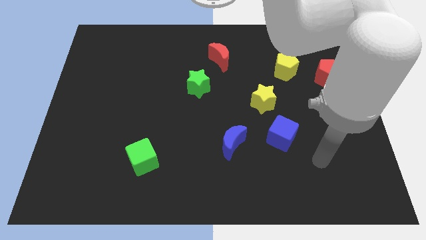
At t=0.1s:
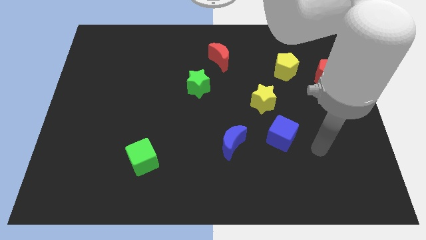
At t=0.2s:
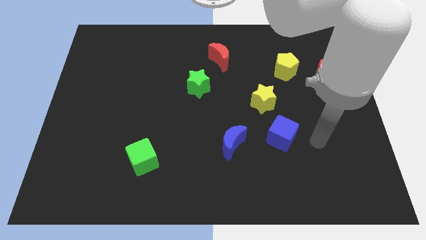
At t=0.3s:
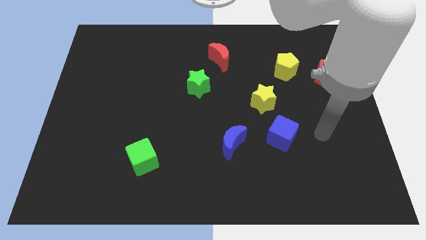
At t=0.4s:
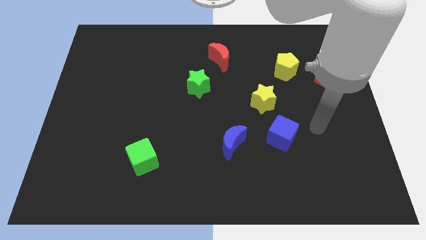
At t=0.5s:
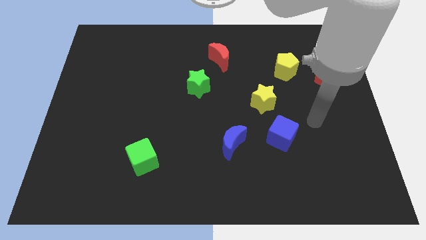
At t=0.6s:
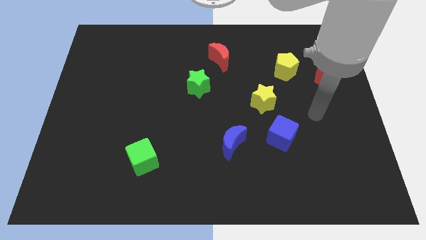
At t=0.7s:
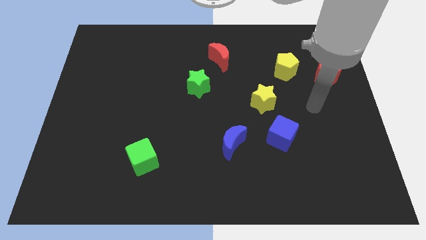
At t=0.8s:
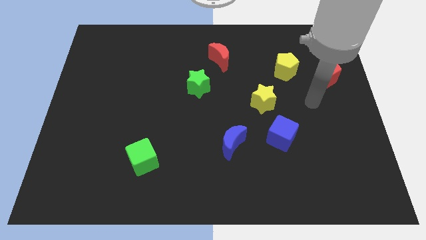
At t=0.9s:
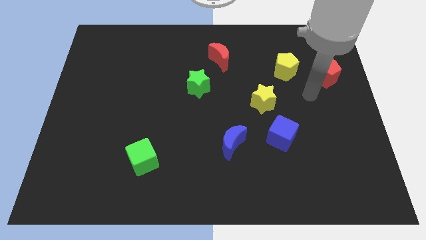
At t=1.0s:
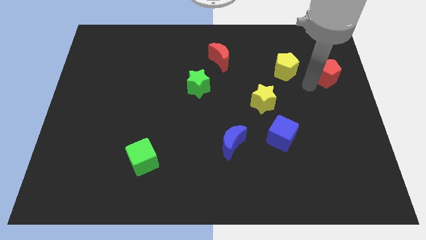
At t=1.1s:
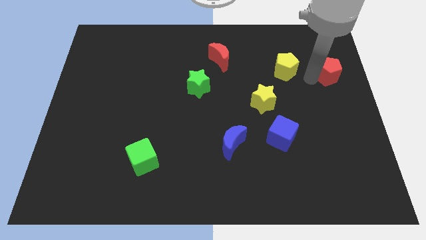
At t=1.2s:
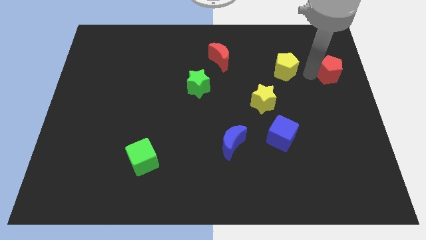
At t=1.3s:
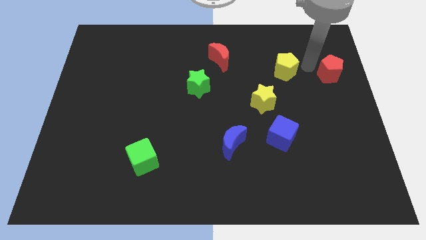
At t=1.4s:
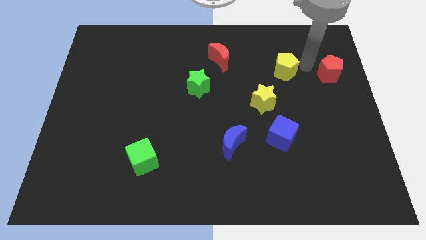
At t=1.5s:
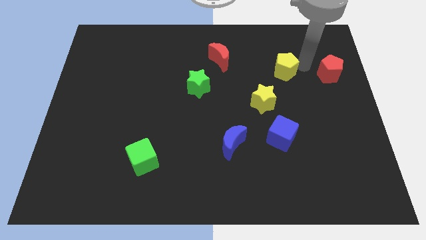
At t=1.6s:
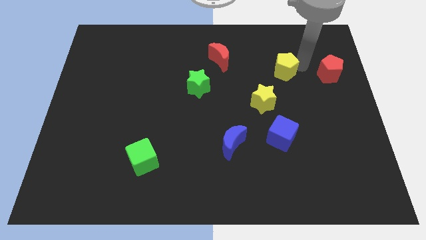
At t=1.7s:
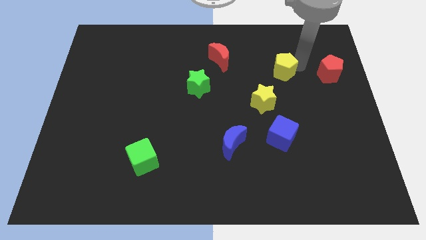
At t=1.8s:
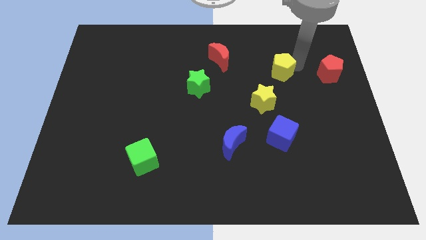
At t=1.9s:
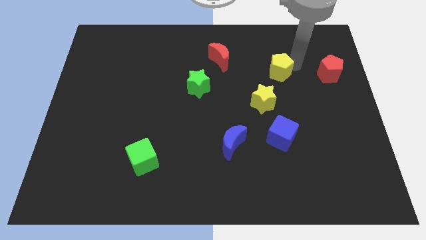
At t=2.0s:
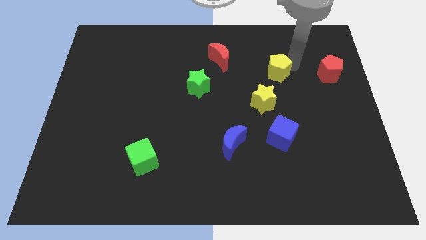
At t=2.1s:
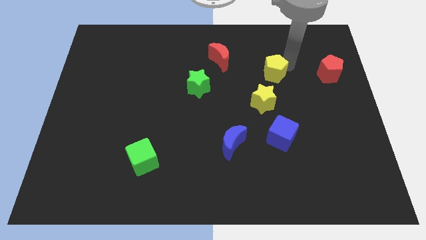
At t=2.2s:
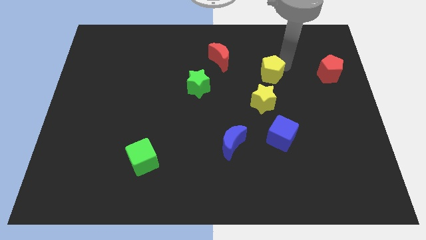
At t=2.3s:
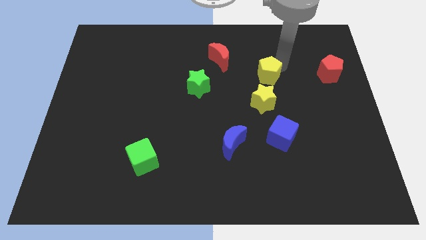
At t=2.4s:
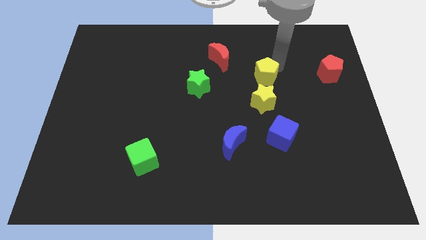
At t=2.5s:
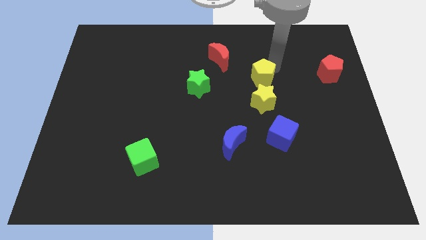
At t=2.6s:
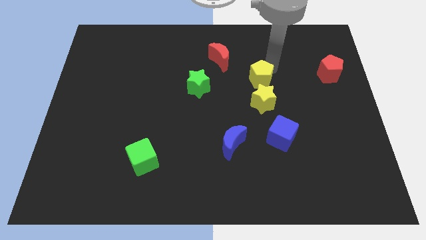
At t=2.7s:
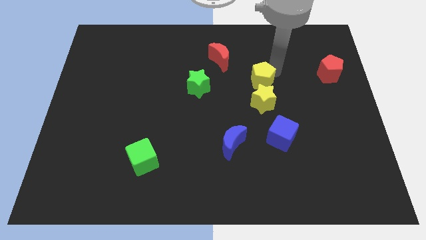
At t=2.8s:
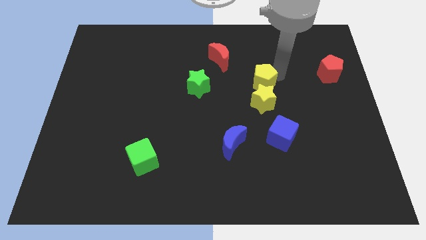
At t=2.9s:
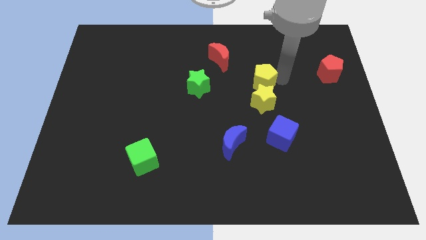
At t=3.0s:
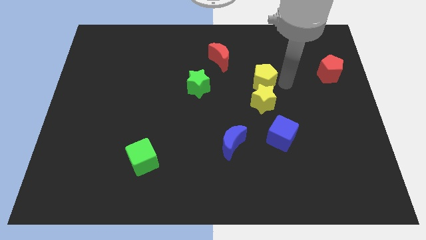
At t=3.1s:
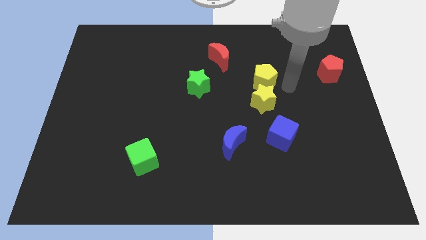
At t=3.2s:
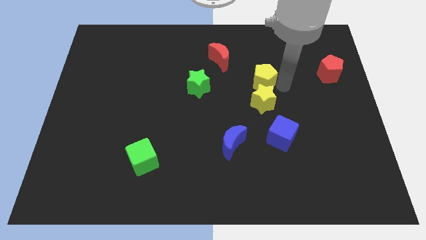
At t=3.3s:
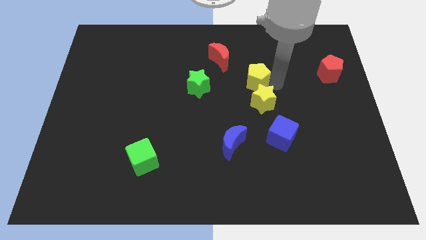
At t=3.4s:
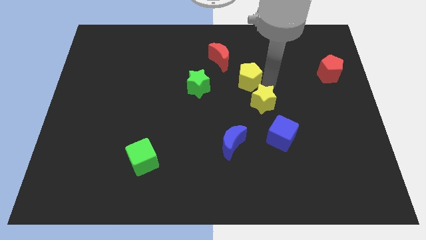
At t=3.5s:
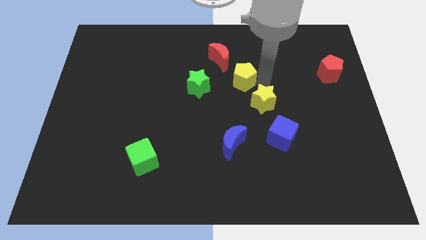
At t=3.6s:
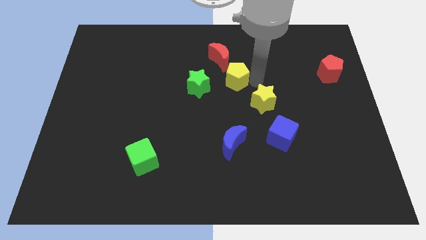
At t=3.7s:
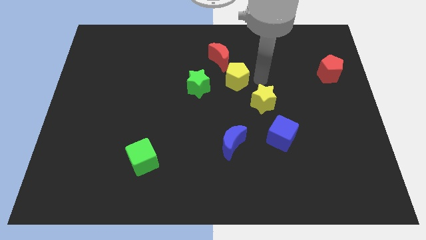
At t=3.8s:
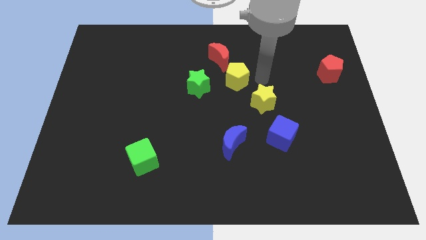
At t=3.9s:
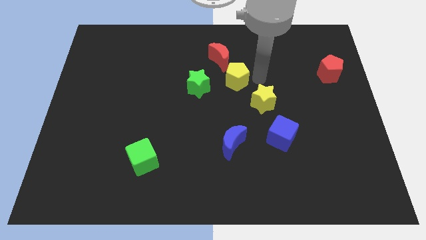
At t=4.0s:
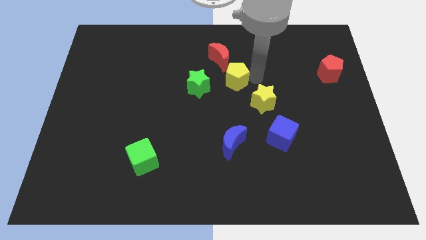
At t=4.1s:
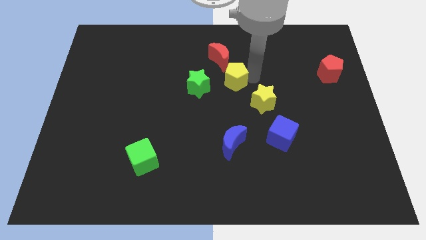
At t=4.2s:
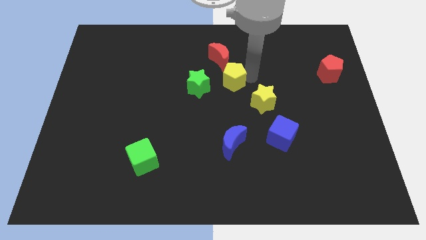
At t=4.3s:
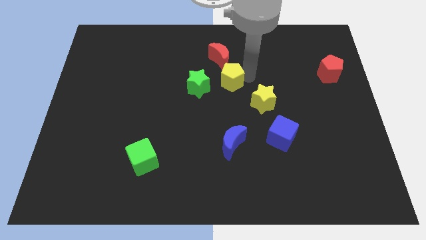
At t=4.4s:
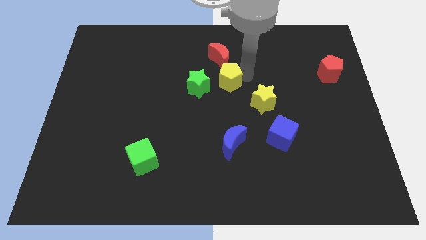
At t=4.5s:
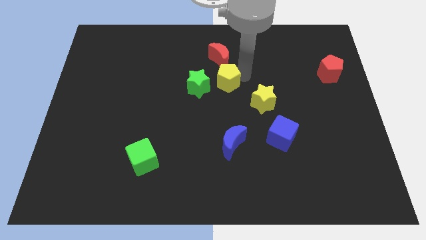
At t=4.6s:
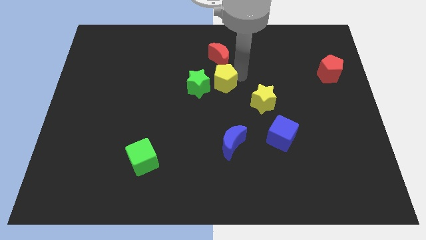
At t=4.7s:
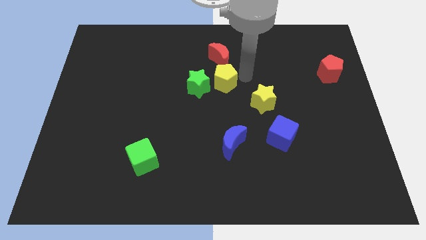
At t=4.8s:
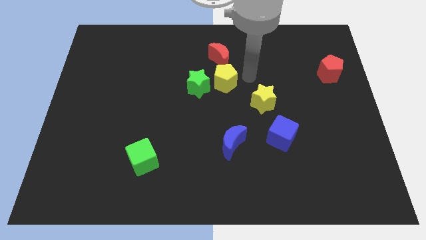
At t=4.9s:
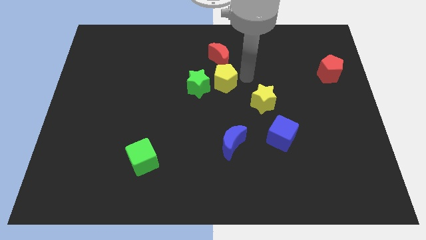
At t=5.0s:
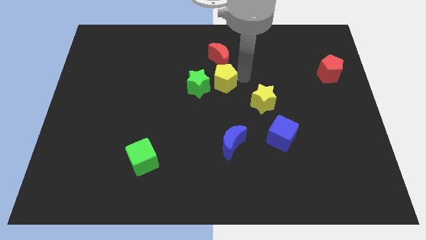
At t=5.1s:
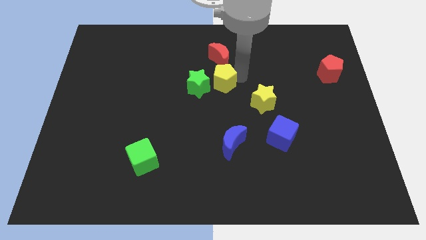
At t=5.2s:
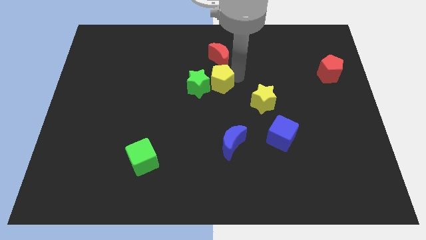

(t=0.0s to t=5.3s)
put the yellow pentagon next to the green star

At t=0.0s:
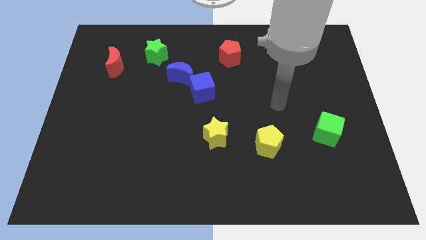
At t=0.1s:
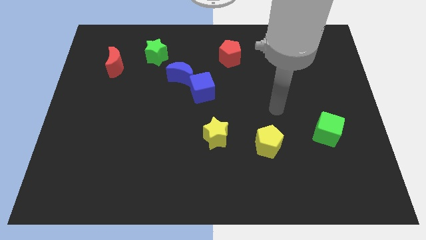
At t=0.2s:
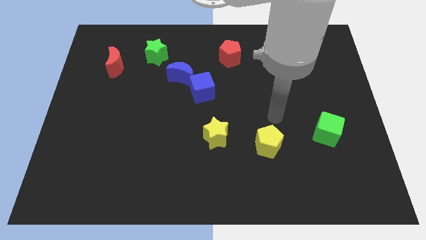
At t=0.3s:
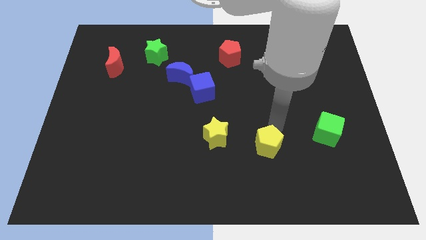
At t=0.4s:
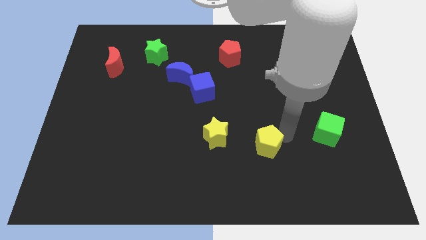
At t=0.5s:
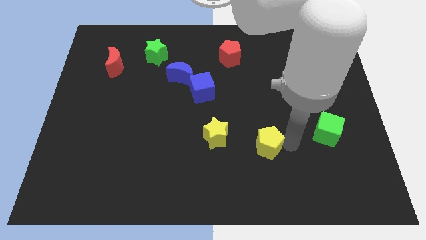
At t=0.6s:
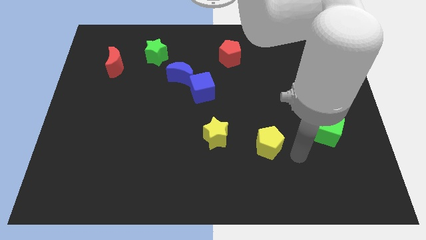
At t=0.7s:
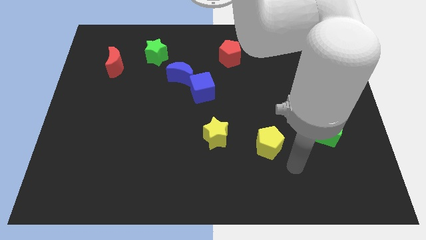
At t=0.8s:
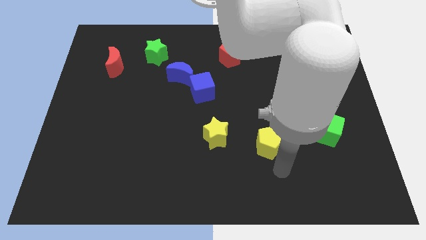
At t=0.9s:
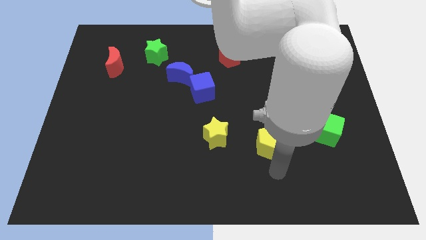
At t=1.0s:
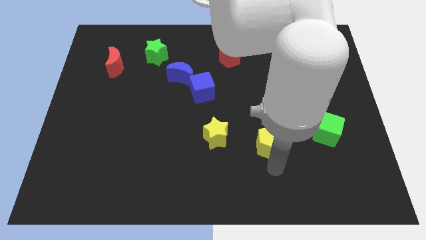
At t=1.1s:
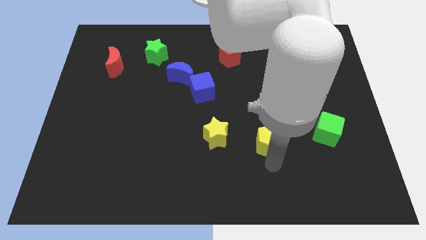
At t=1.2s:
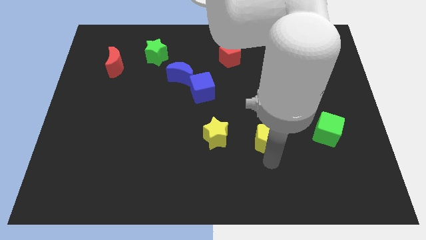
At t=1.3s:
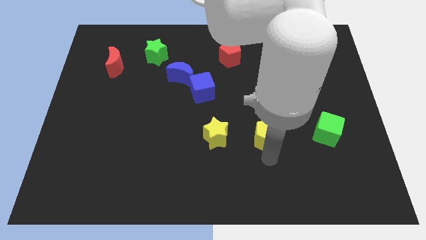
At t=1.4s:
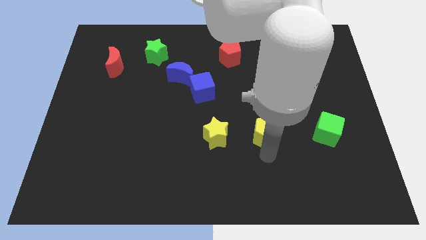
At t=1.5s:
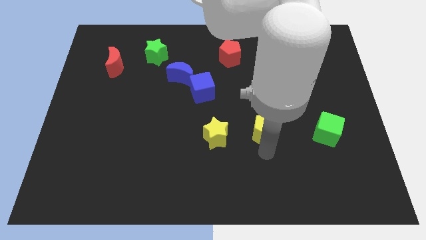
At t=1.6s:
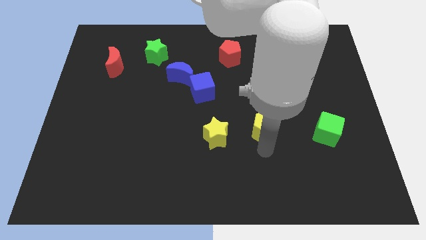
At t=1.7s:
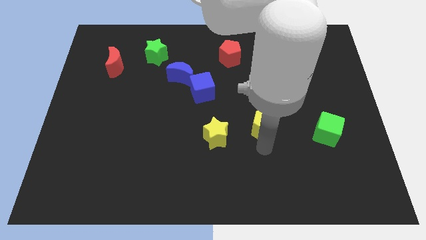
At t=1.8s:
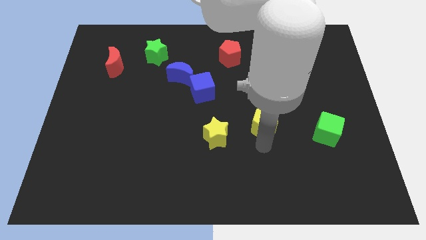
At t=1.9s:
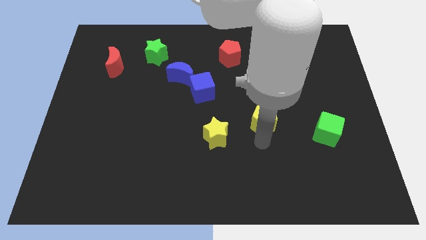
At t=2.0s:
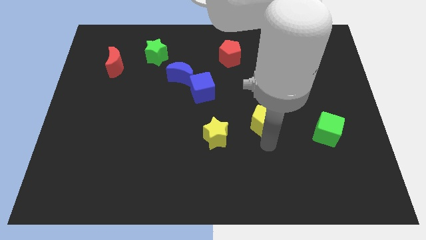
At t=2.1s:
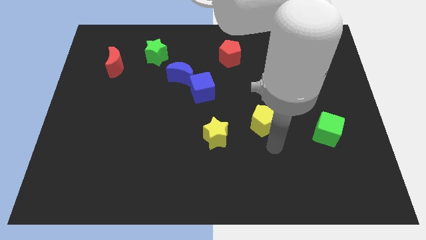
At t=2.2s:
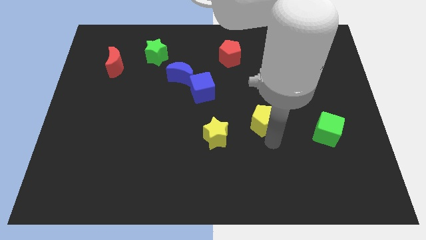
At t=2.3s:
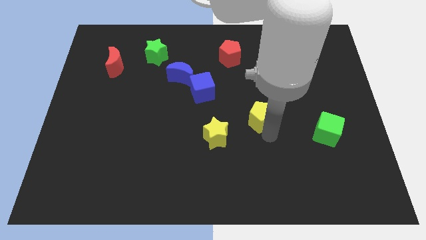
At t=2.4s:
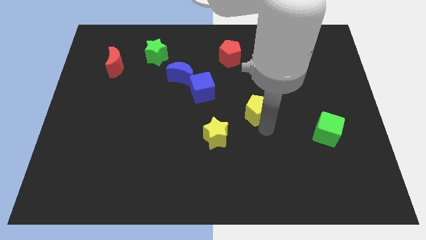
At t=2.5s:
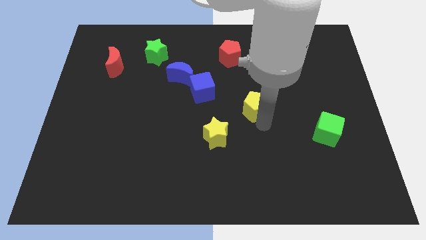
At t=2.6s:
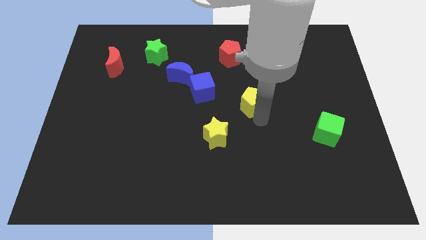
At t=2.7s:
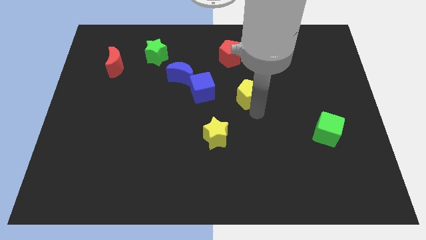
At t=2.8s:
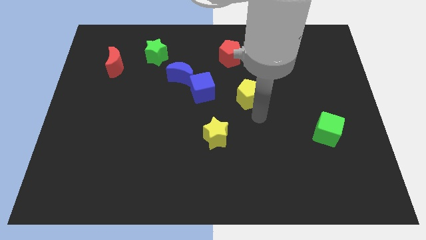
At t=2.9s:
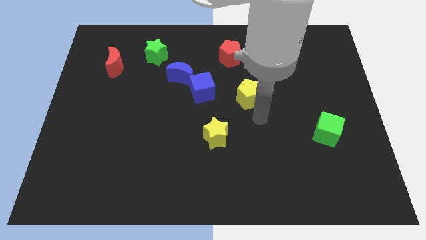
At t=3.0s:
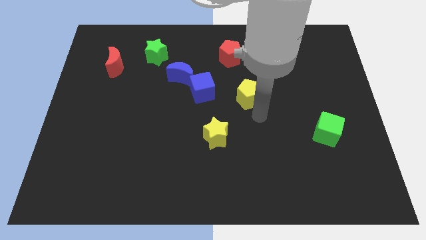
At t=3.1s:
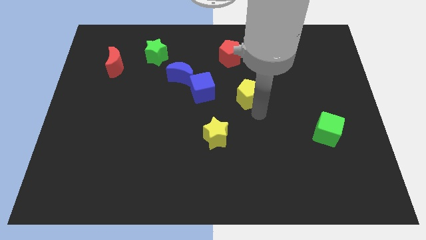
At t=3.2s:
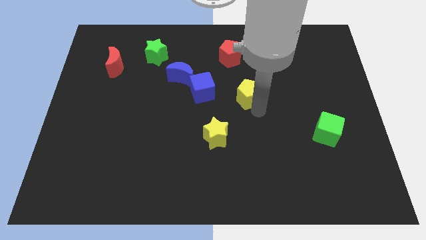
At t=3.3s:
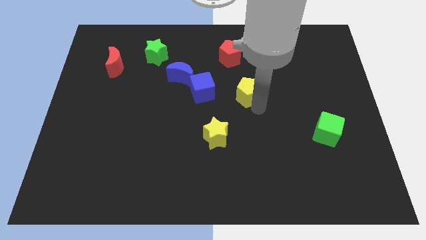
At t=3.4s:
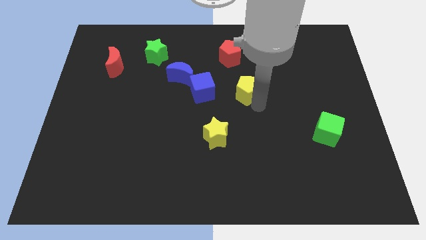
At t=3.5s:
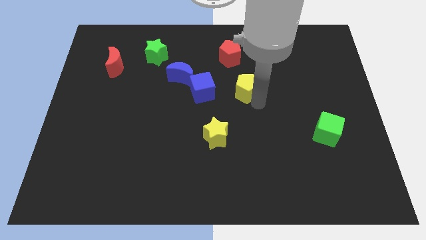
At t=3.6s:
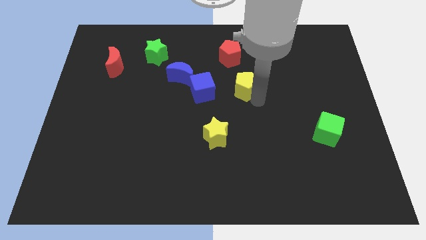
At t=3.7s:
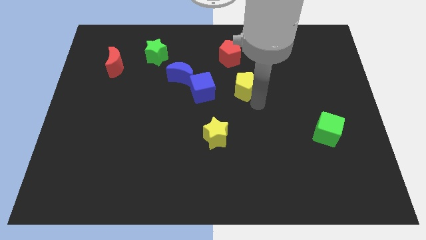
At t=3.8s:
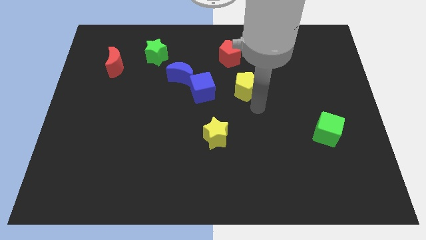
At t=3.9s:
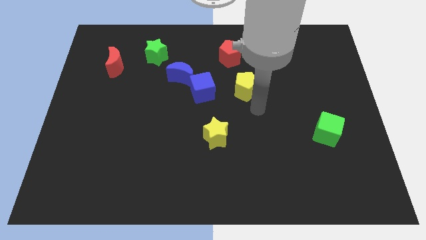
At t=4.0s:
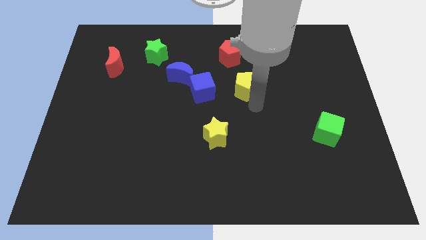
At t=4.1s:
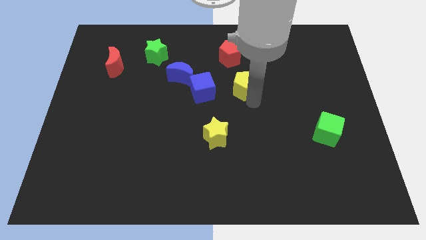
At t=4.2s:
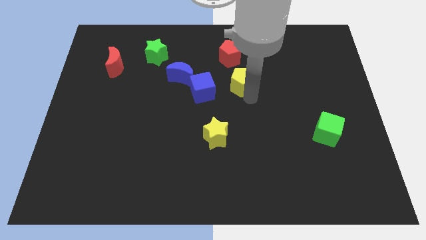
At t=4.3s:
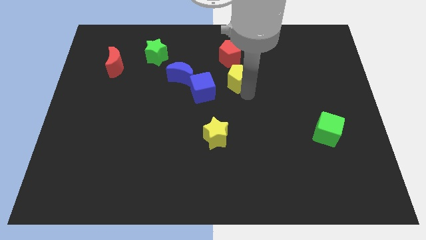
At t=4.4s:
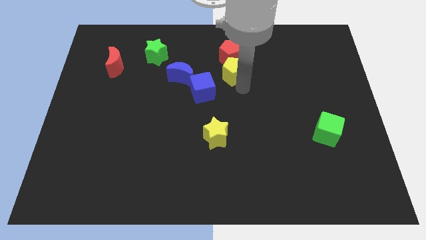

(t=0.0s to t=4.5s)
slide the yellow pentagon close to the red pentagon
